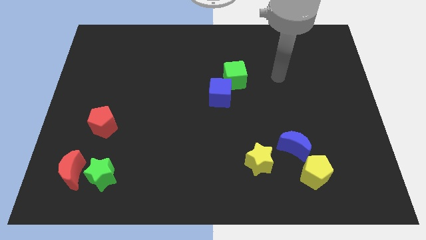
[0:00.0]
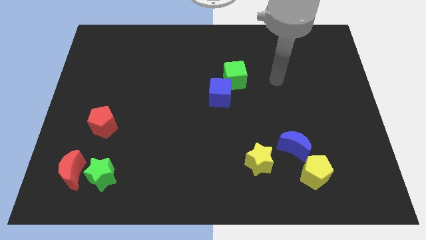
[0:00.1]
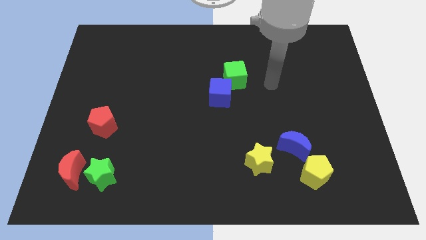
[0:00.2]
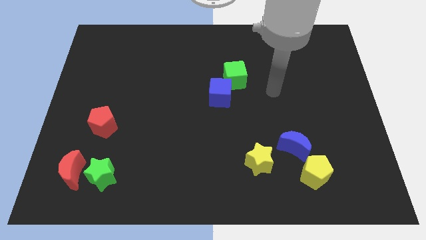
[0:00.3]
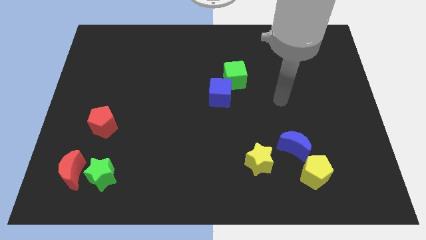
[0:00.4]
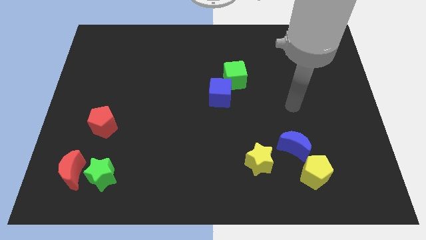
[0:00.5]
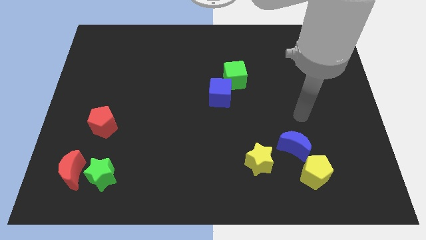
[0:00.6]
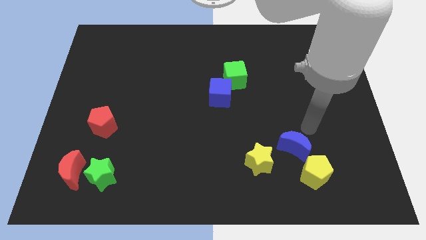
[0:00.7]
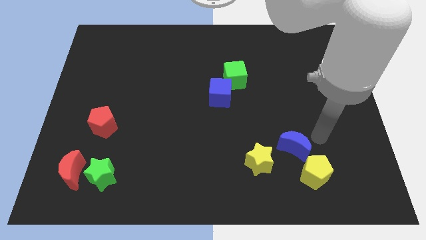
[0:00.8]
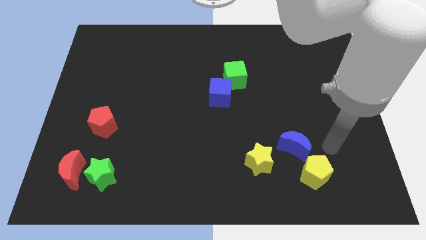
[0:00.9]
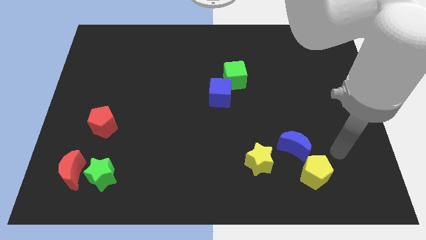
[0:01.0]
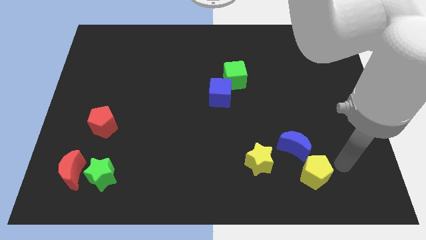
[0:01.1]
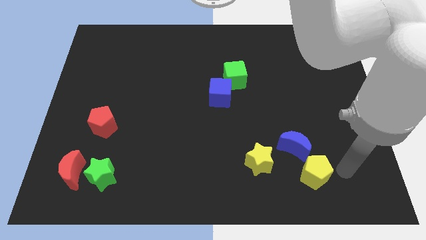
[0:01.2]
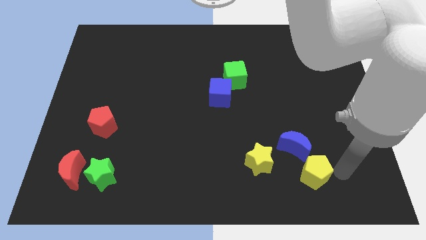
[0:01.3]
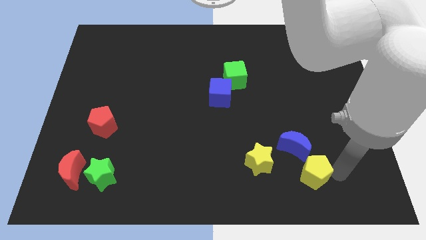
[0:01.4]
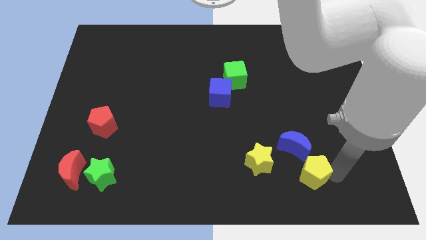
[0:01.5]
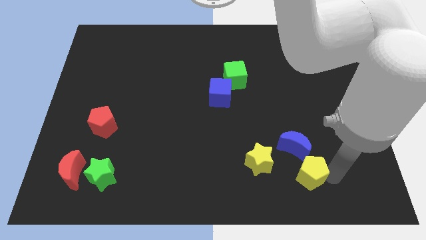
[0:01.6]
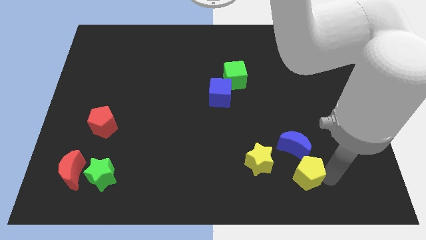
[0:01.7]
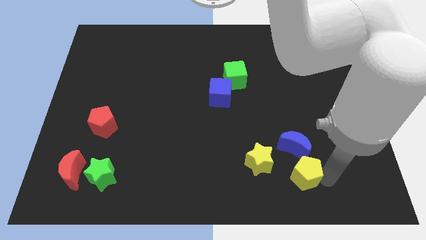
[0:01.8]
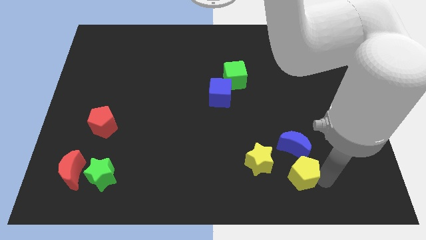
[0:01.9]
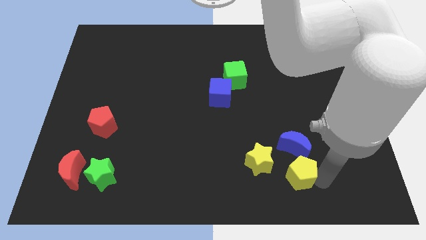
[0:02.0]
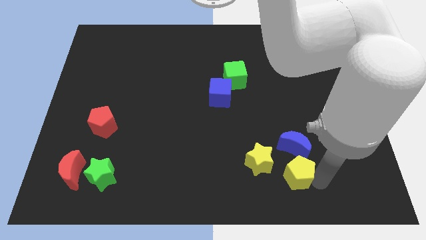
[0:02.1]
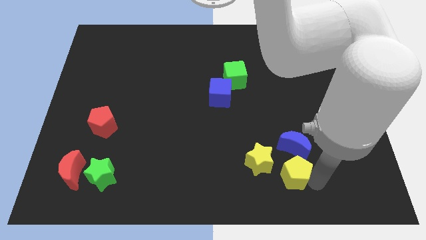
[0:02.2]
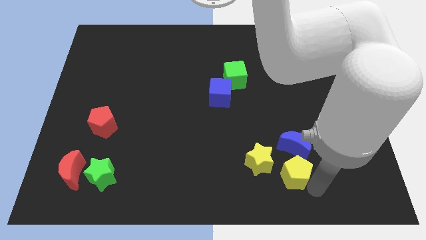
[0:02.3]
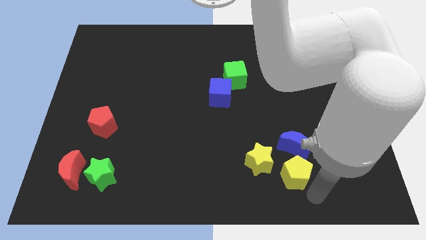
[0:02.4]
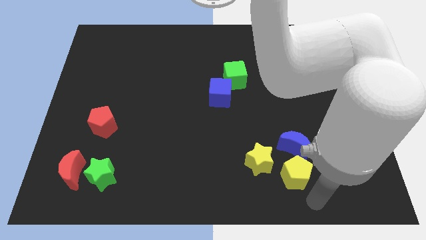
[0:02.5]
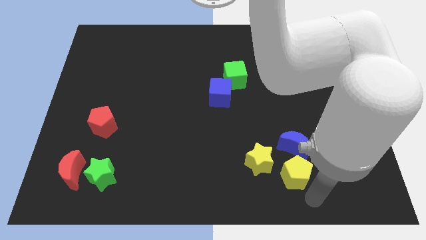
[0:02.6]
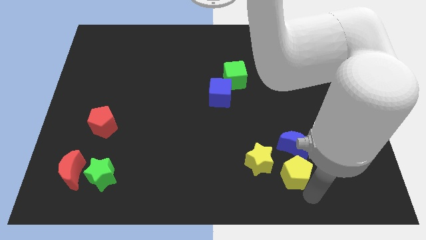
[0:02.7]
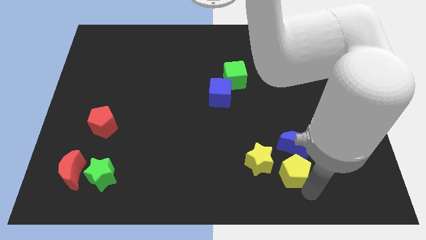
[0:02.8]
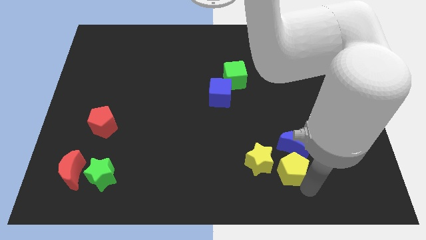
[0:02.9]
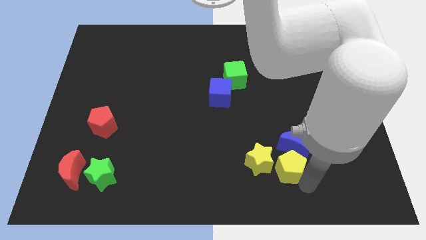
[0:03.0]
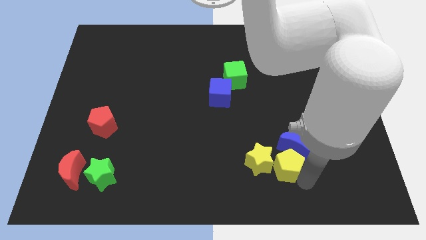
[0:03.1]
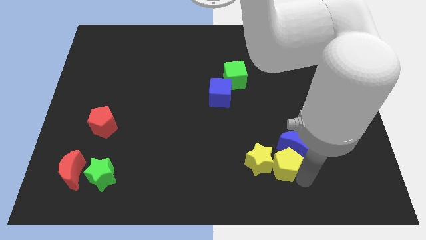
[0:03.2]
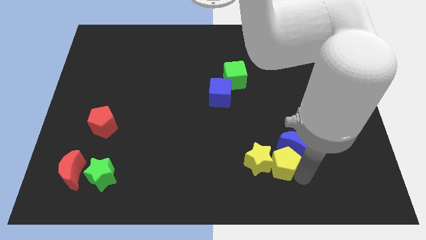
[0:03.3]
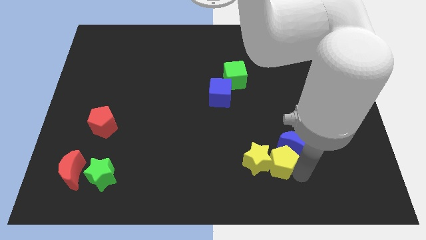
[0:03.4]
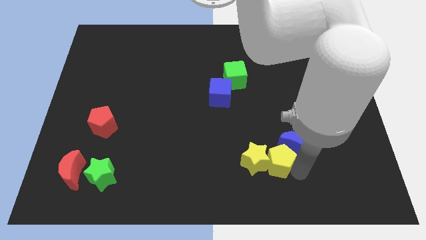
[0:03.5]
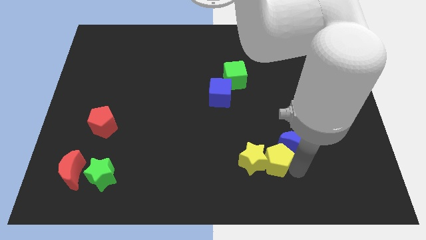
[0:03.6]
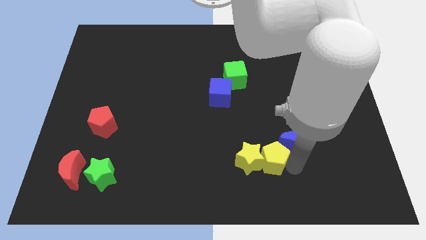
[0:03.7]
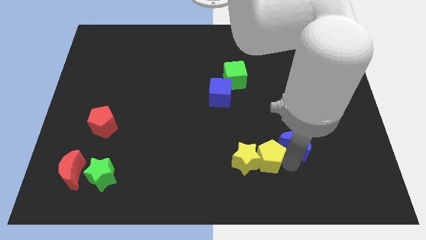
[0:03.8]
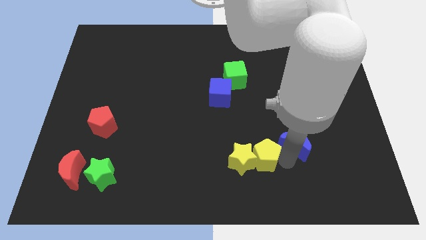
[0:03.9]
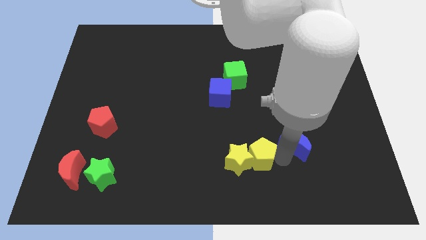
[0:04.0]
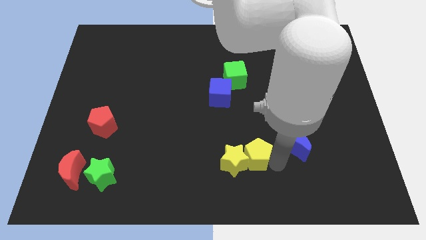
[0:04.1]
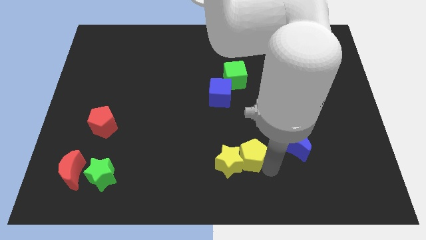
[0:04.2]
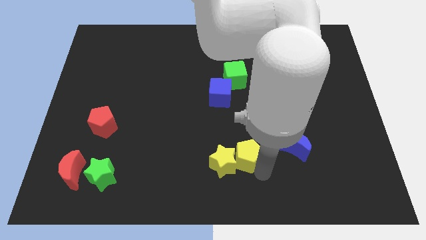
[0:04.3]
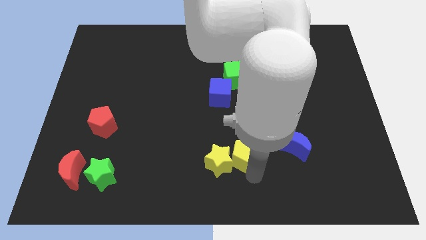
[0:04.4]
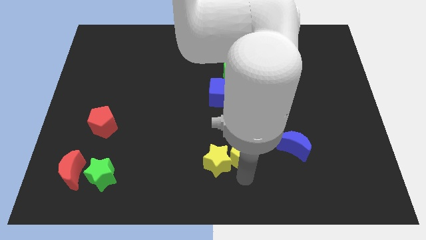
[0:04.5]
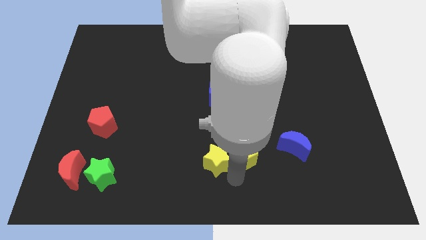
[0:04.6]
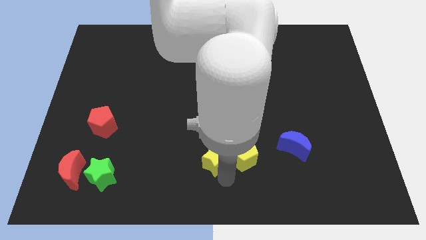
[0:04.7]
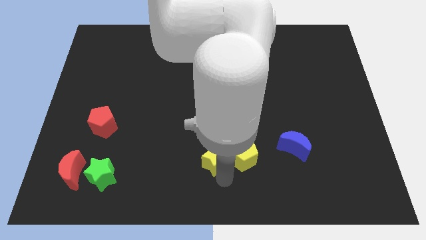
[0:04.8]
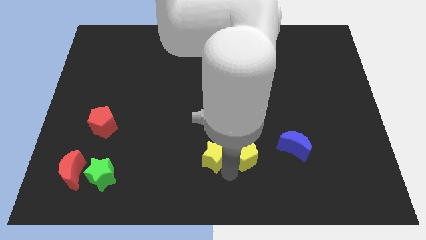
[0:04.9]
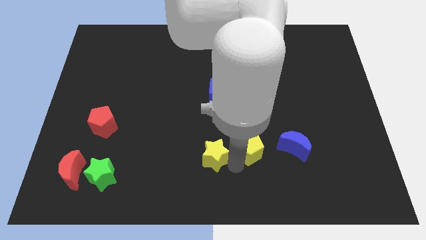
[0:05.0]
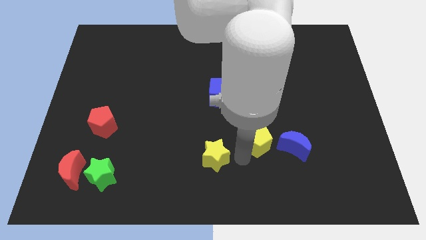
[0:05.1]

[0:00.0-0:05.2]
move the yellow pentagon diagonally up and to the left of the blue moon

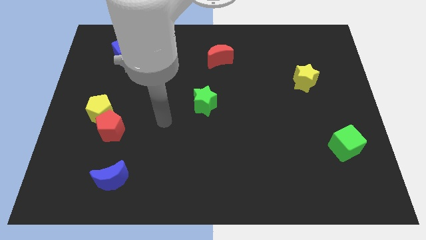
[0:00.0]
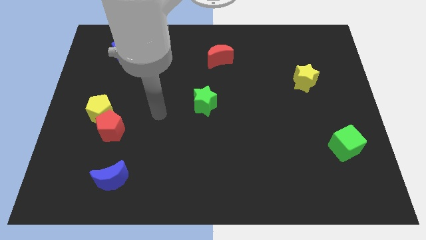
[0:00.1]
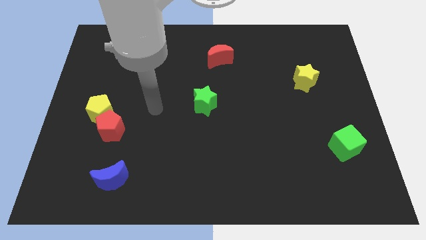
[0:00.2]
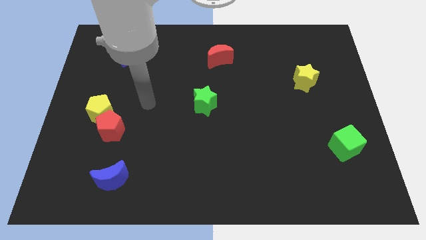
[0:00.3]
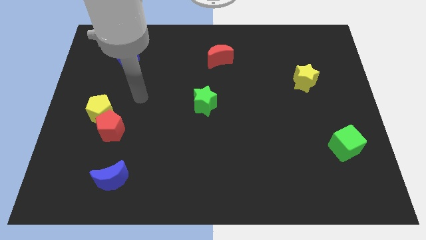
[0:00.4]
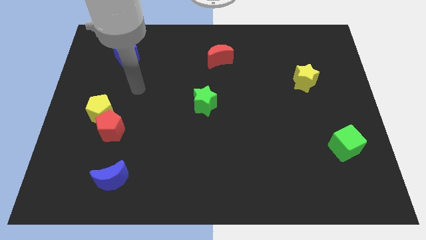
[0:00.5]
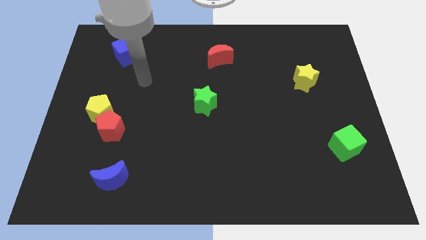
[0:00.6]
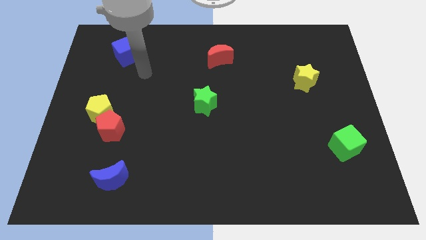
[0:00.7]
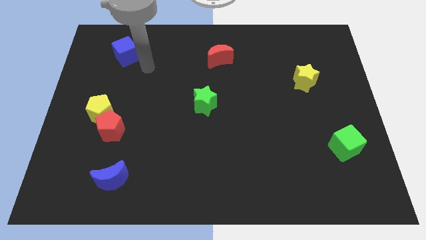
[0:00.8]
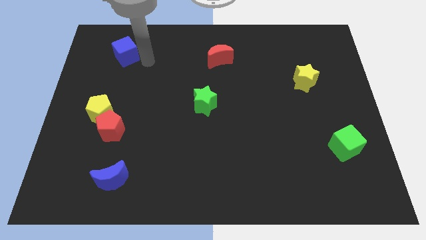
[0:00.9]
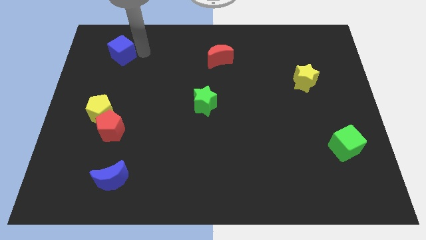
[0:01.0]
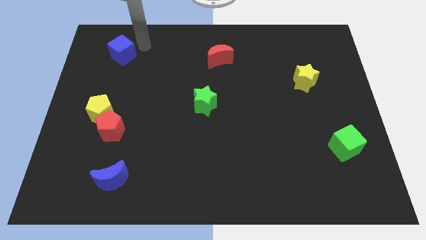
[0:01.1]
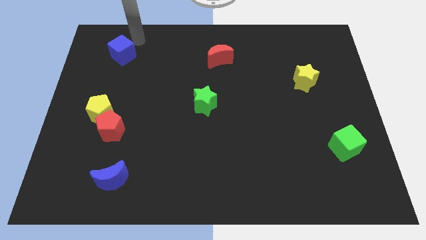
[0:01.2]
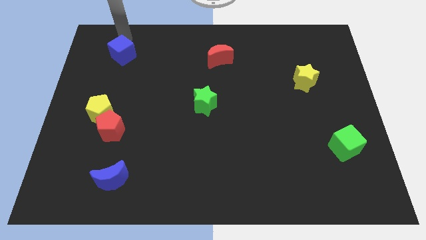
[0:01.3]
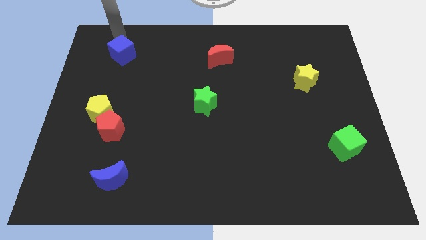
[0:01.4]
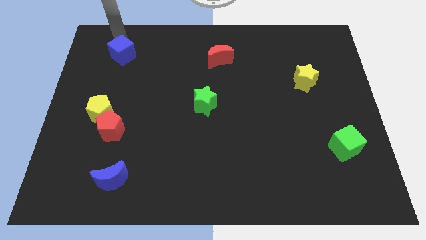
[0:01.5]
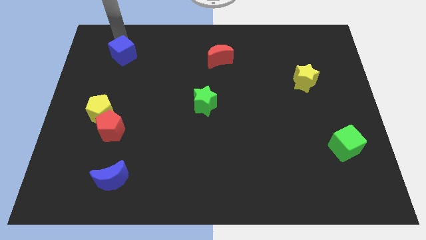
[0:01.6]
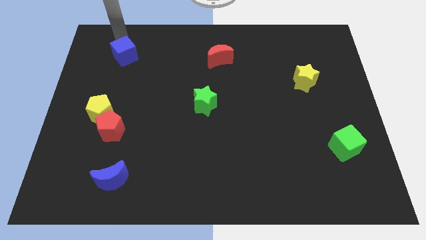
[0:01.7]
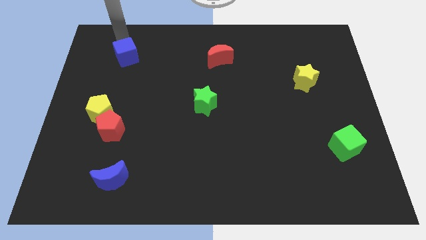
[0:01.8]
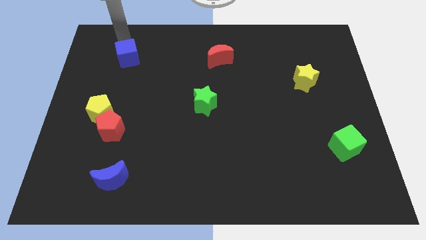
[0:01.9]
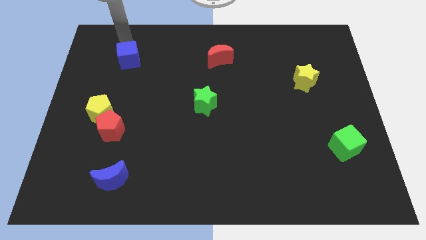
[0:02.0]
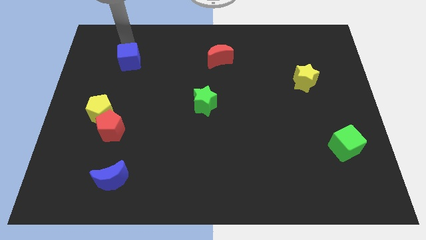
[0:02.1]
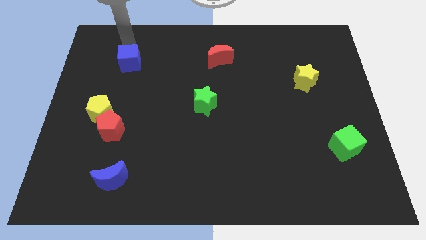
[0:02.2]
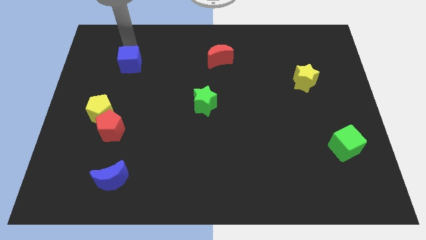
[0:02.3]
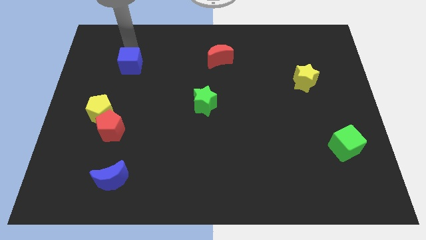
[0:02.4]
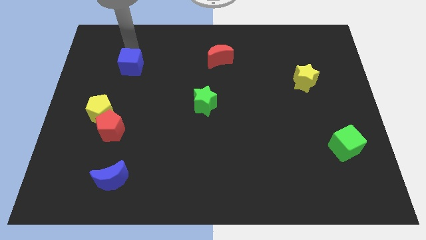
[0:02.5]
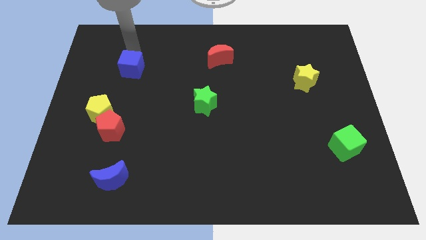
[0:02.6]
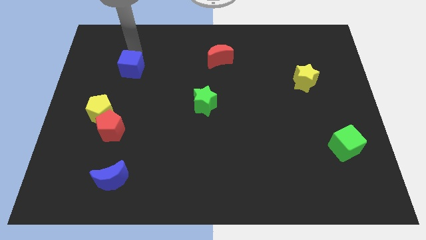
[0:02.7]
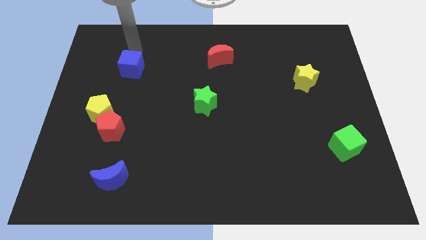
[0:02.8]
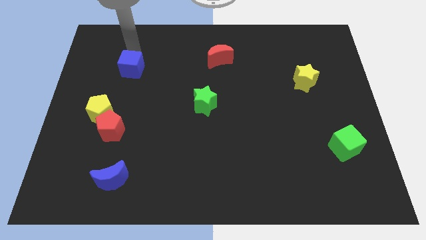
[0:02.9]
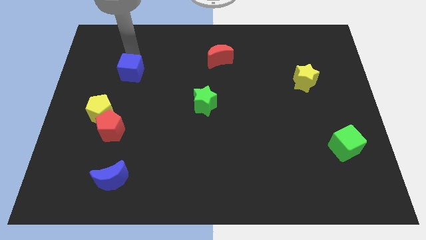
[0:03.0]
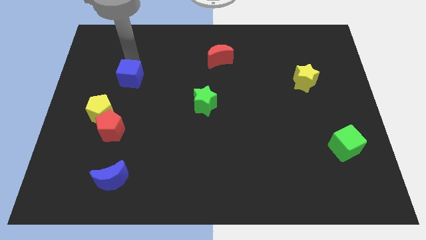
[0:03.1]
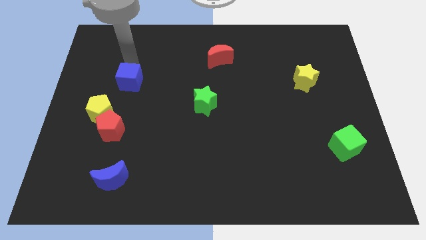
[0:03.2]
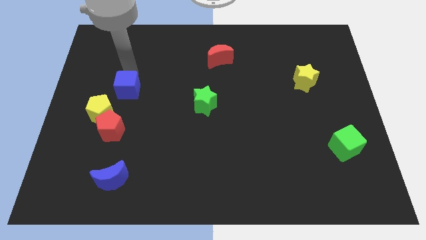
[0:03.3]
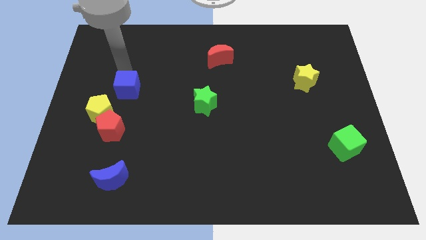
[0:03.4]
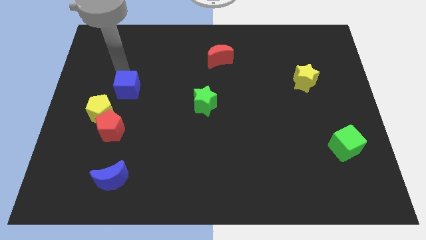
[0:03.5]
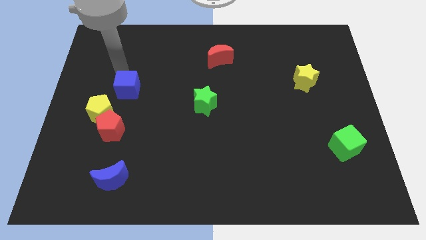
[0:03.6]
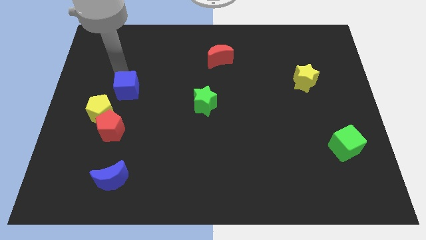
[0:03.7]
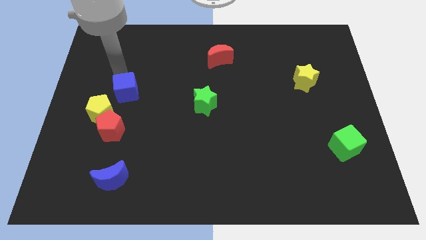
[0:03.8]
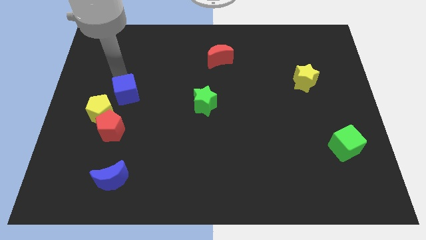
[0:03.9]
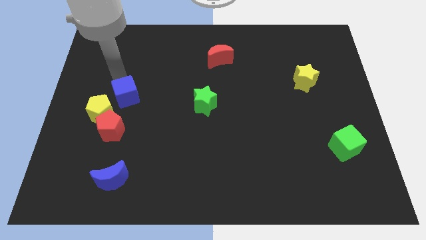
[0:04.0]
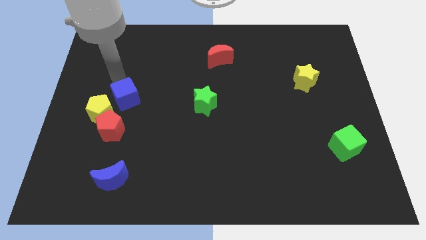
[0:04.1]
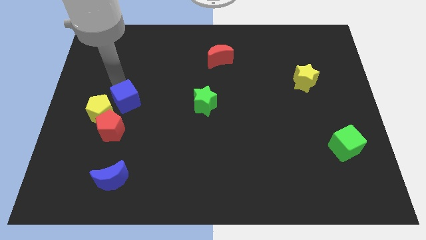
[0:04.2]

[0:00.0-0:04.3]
move the blue cube diagonally up and to the right of the red pentagon
